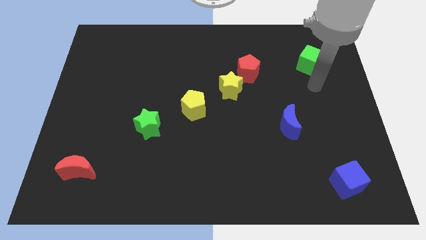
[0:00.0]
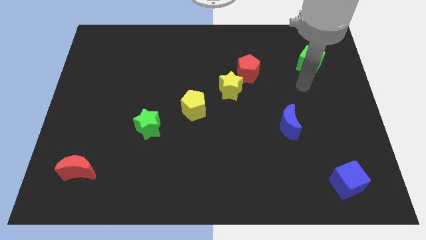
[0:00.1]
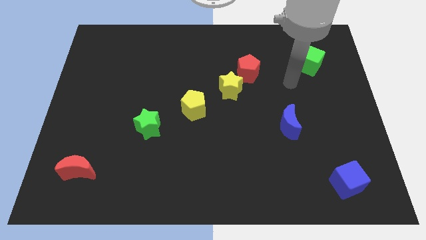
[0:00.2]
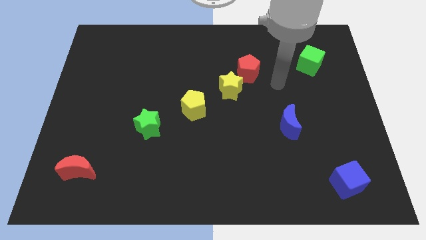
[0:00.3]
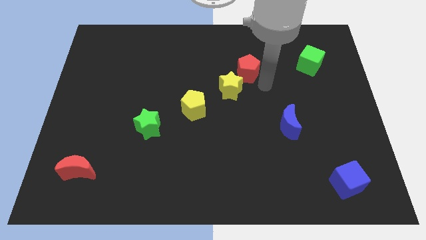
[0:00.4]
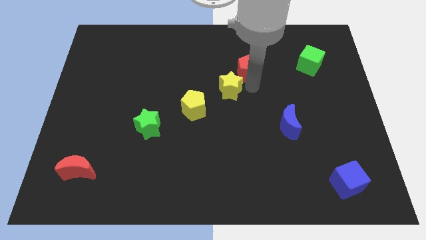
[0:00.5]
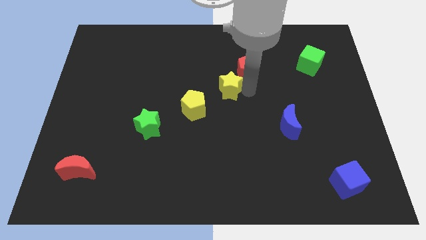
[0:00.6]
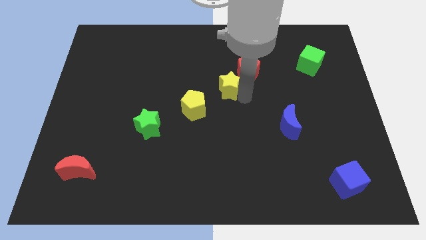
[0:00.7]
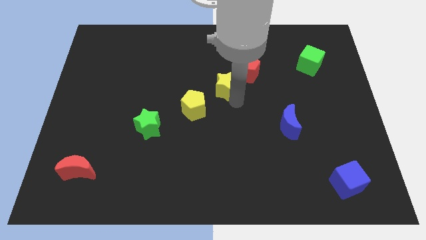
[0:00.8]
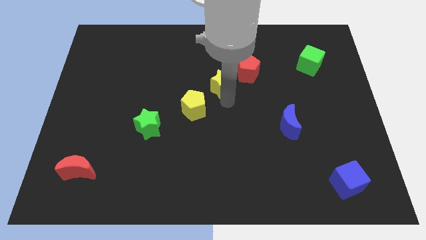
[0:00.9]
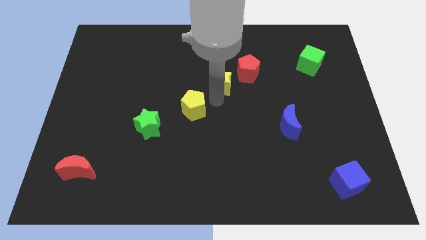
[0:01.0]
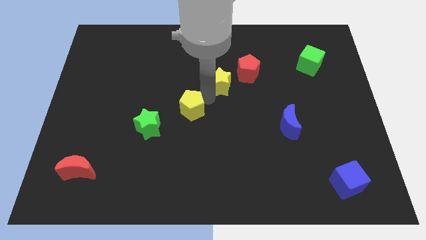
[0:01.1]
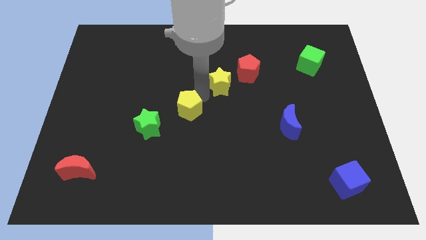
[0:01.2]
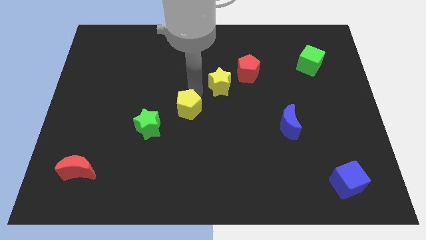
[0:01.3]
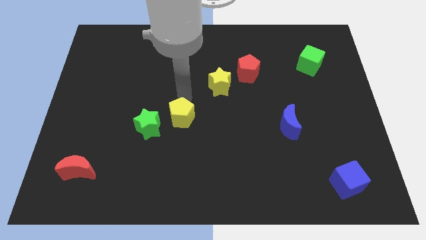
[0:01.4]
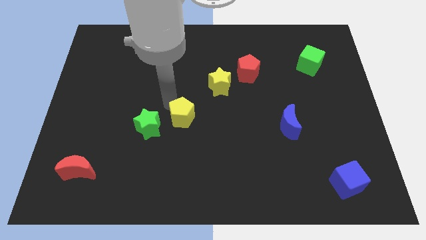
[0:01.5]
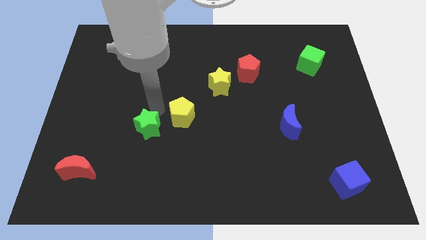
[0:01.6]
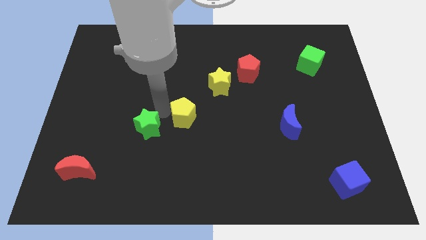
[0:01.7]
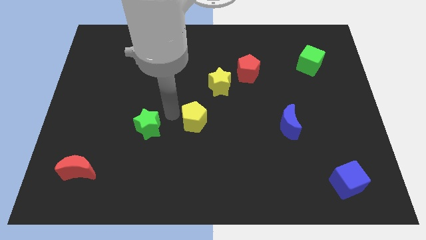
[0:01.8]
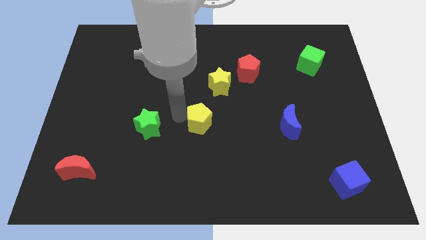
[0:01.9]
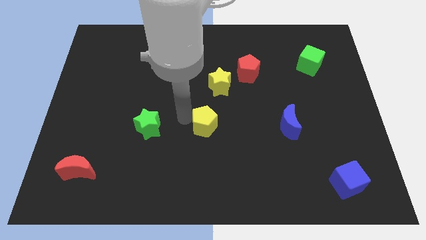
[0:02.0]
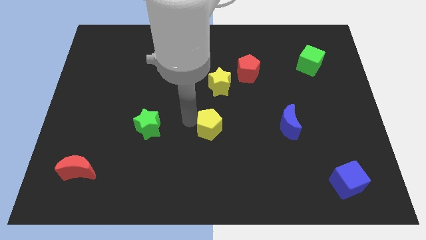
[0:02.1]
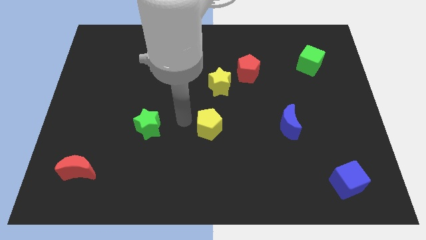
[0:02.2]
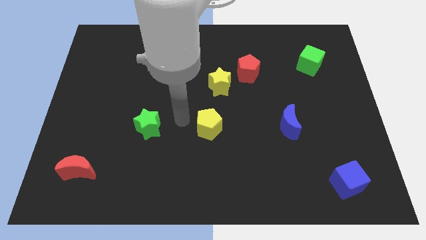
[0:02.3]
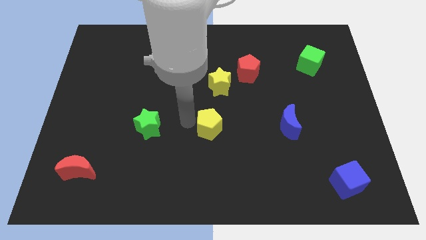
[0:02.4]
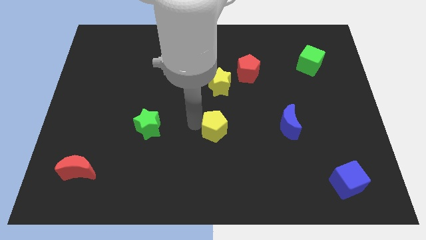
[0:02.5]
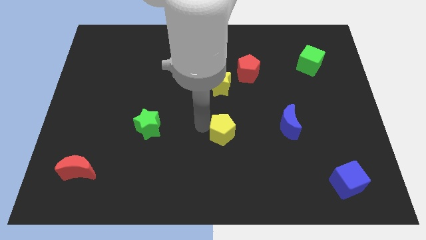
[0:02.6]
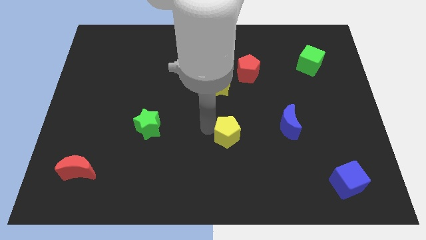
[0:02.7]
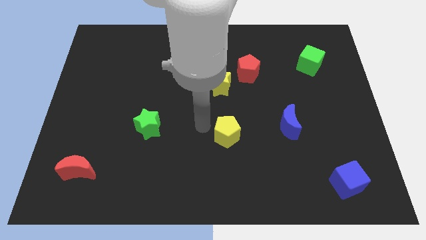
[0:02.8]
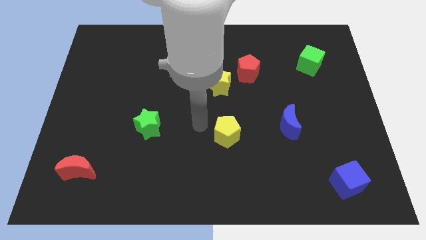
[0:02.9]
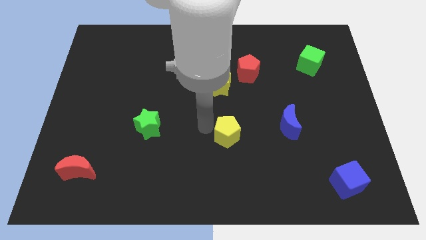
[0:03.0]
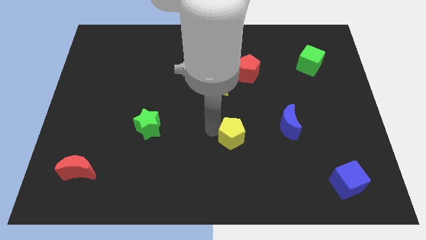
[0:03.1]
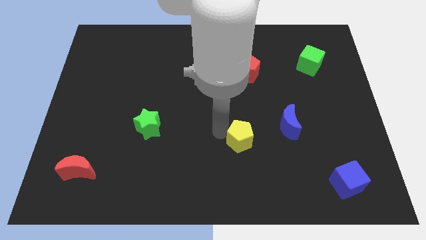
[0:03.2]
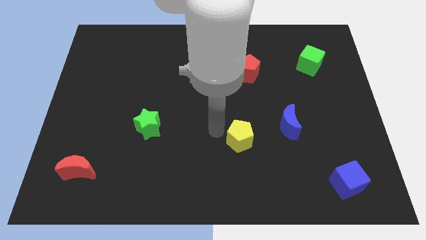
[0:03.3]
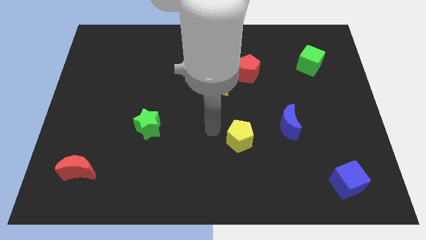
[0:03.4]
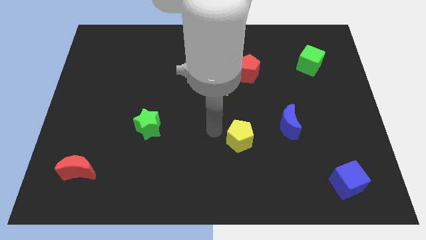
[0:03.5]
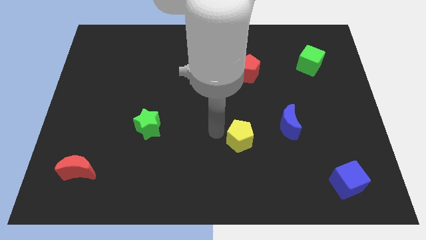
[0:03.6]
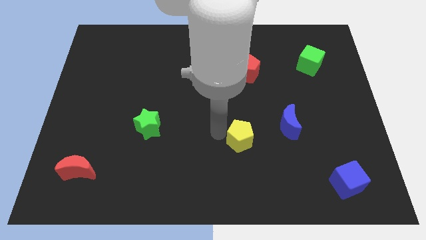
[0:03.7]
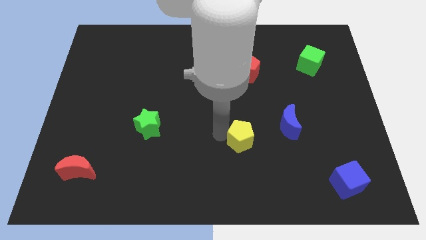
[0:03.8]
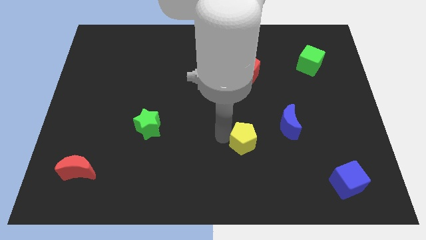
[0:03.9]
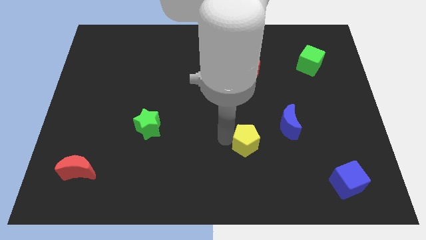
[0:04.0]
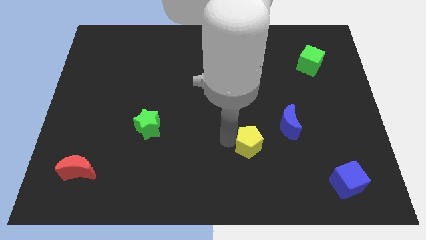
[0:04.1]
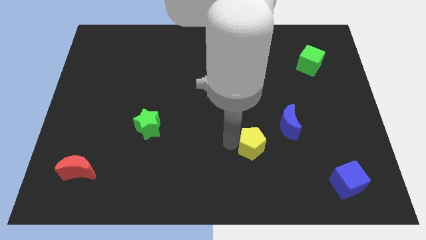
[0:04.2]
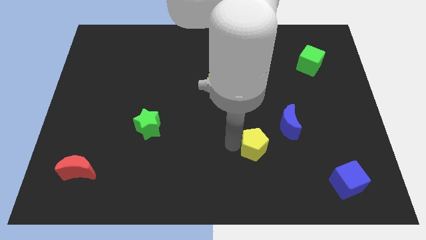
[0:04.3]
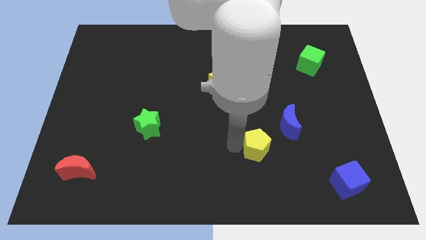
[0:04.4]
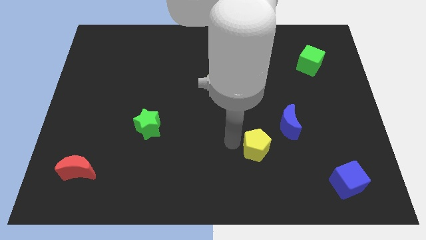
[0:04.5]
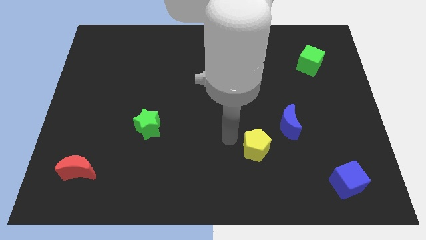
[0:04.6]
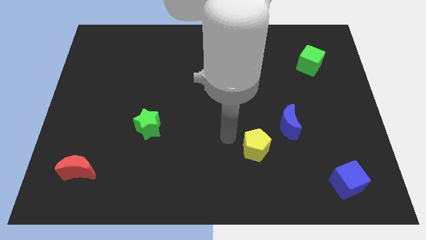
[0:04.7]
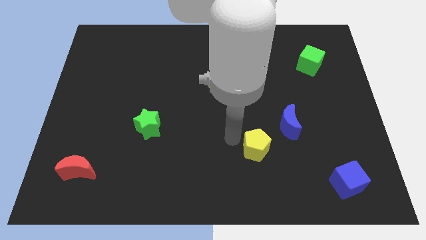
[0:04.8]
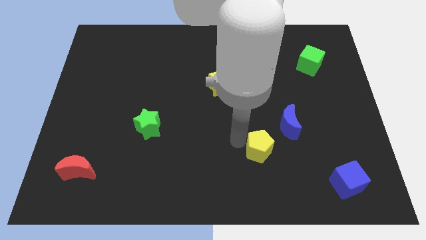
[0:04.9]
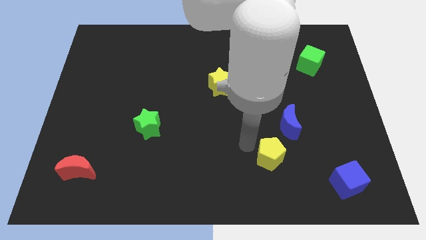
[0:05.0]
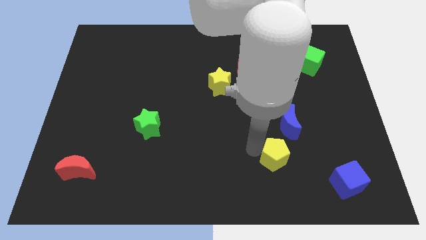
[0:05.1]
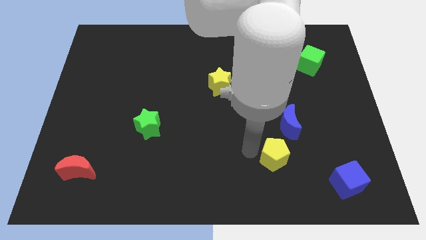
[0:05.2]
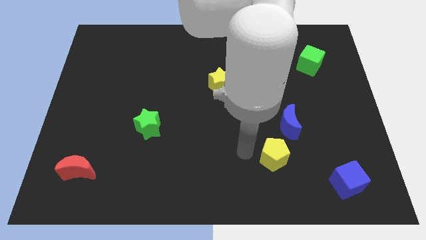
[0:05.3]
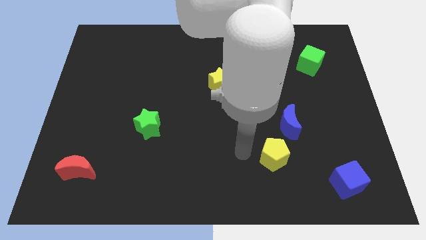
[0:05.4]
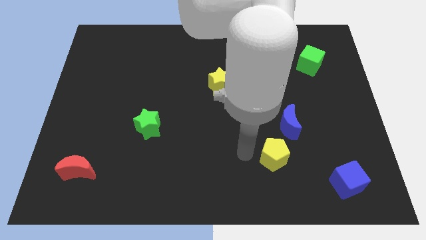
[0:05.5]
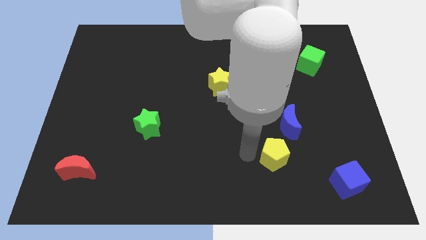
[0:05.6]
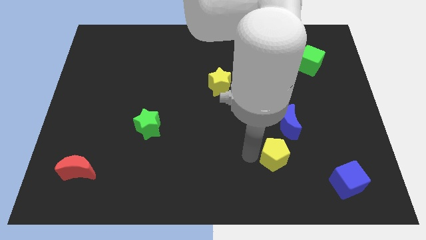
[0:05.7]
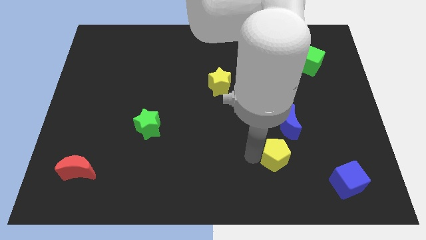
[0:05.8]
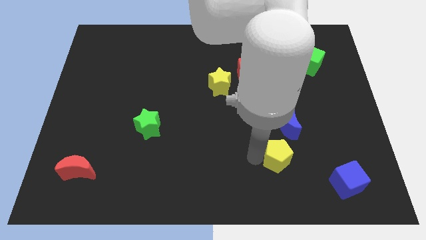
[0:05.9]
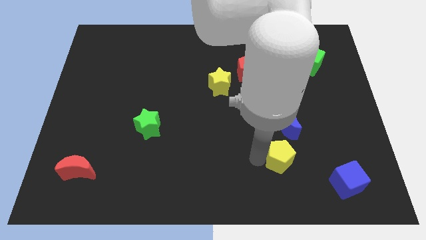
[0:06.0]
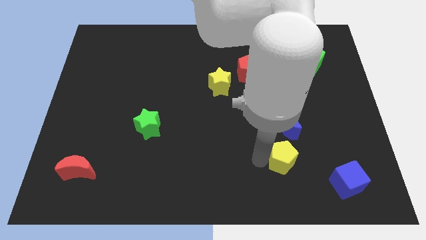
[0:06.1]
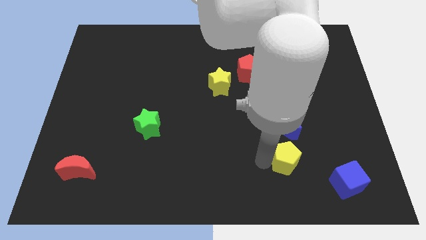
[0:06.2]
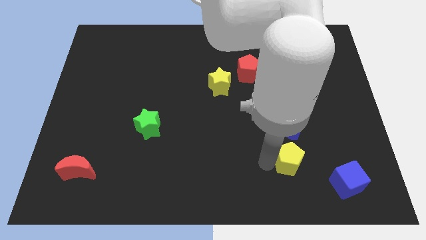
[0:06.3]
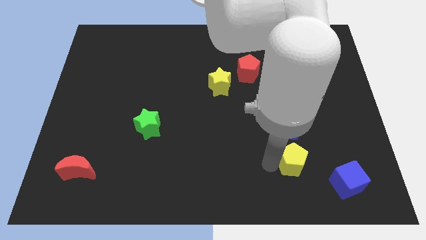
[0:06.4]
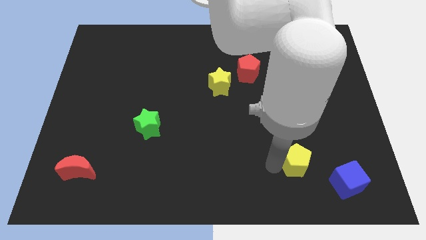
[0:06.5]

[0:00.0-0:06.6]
put the yellow pentagon to the top left of the blue cube

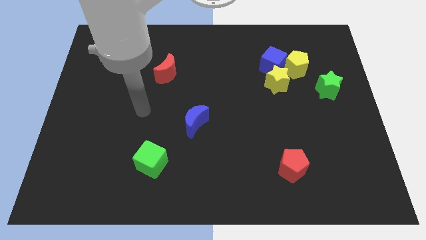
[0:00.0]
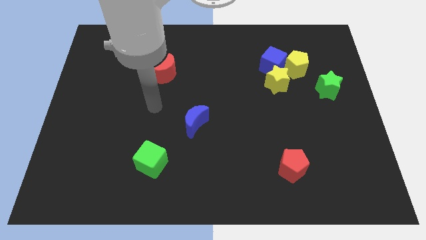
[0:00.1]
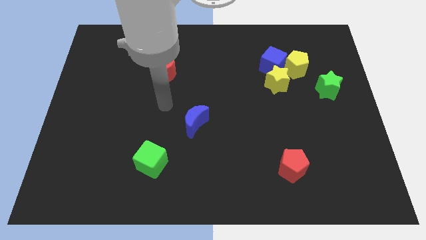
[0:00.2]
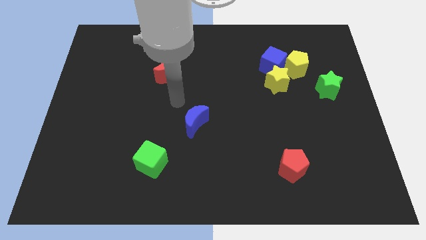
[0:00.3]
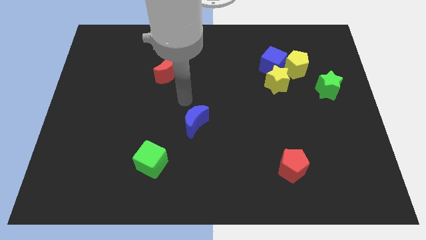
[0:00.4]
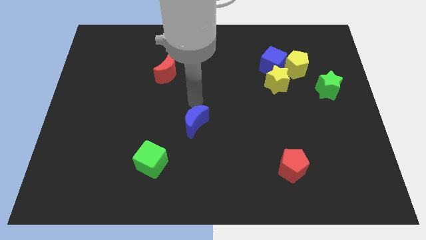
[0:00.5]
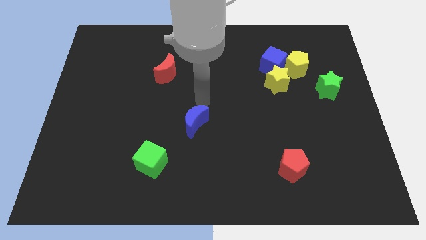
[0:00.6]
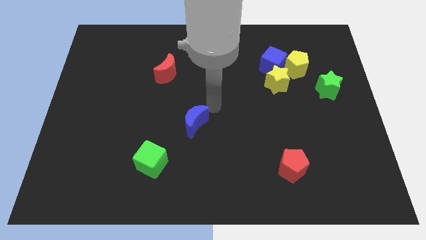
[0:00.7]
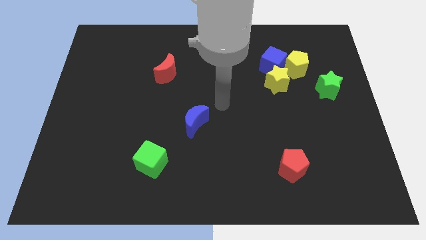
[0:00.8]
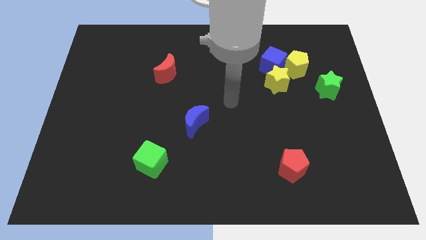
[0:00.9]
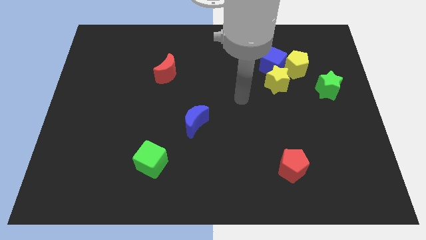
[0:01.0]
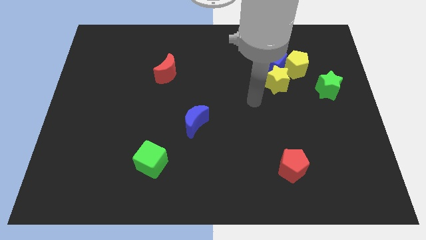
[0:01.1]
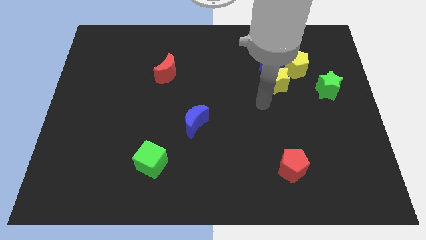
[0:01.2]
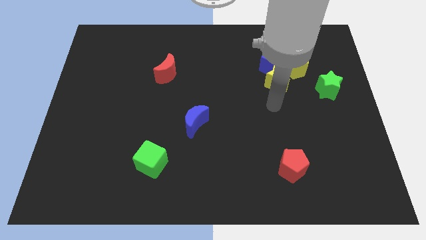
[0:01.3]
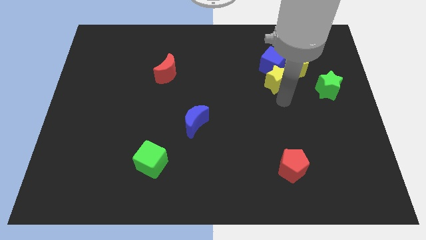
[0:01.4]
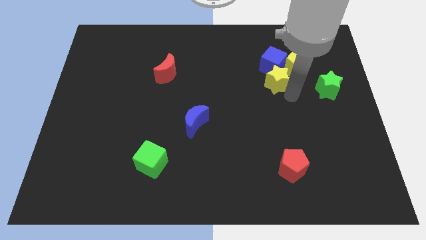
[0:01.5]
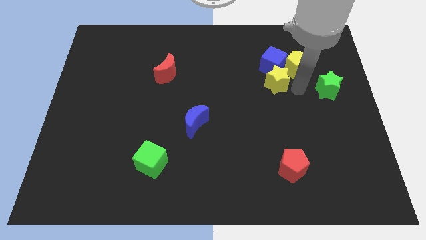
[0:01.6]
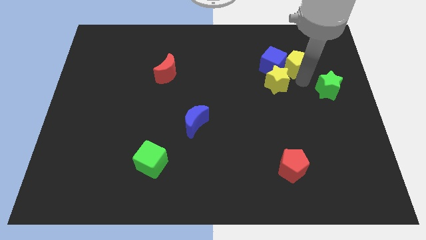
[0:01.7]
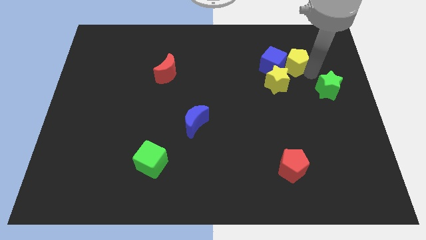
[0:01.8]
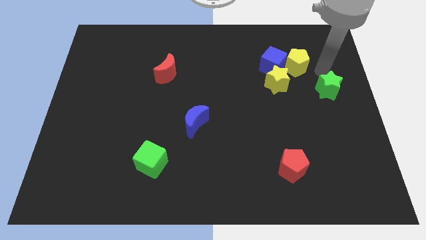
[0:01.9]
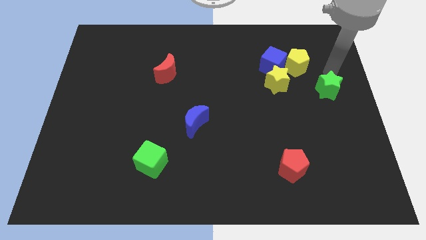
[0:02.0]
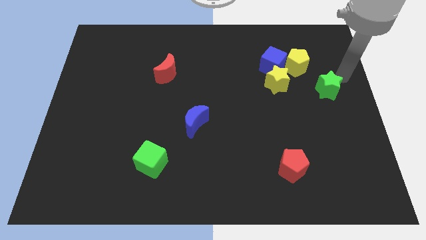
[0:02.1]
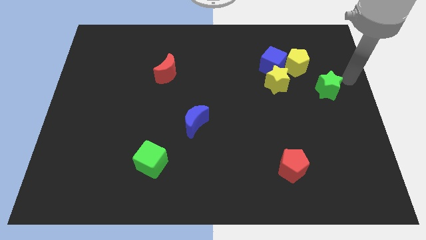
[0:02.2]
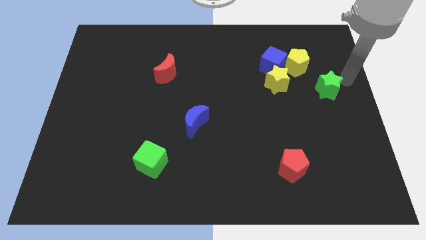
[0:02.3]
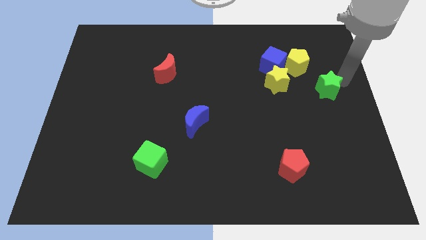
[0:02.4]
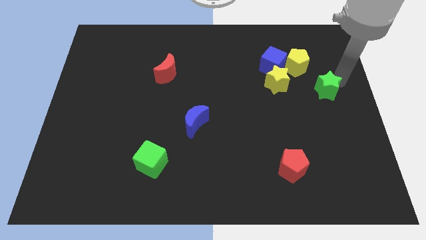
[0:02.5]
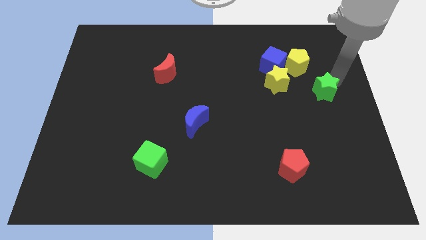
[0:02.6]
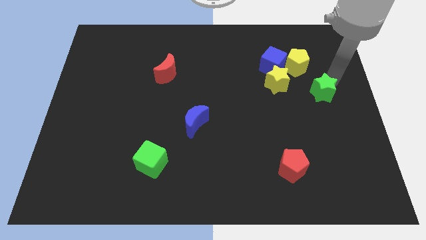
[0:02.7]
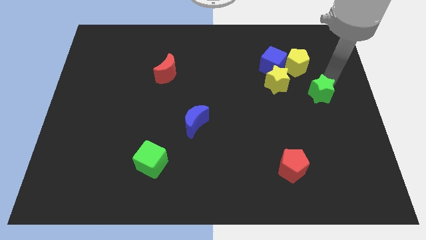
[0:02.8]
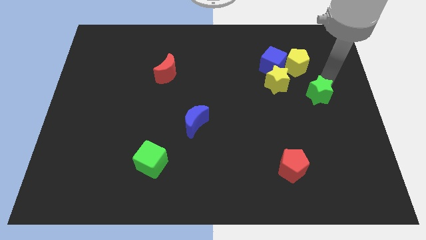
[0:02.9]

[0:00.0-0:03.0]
put the green star to the bottom right side of the yellow star
